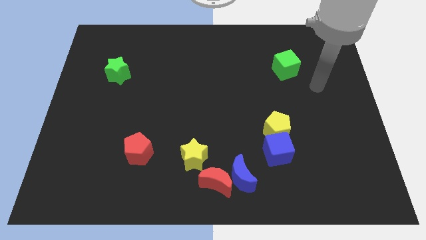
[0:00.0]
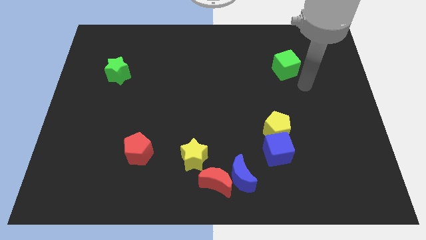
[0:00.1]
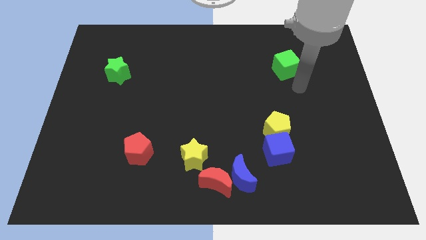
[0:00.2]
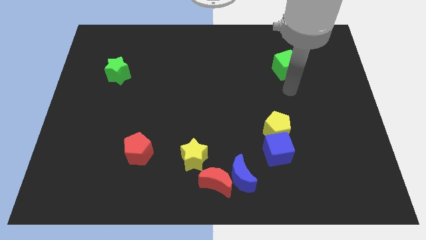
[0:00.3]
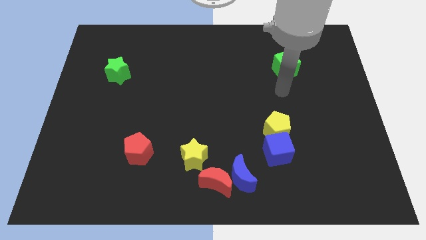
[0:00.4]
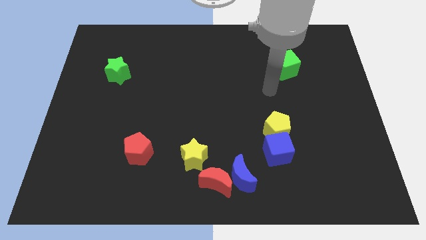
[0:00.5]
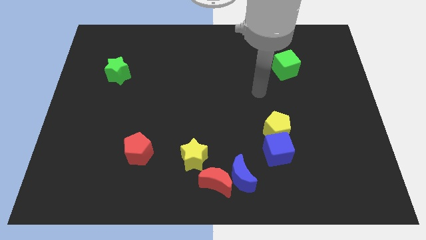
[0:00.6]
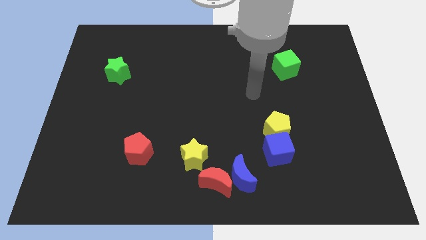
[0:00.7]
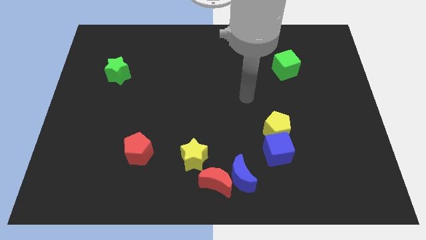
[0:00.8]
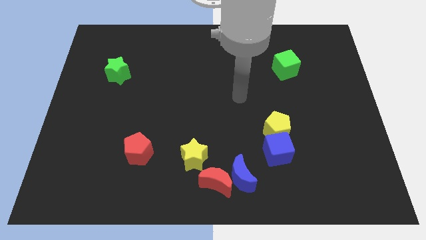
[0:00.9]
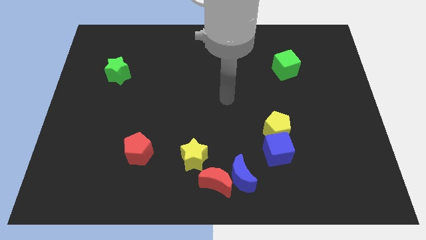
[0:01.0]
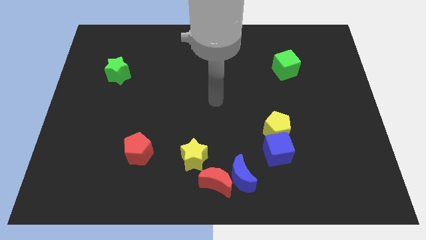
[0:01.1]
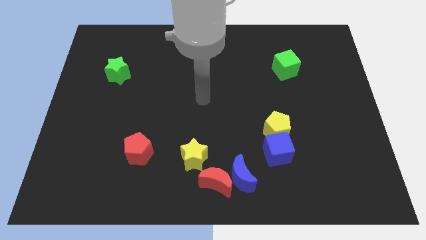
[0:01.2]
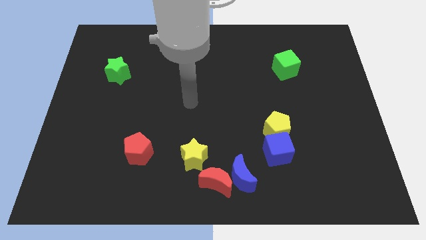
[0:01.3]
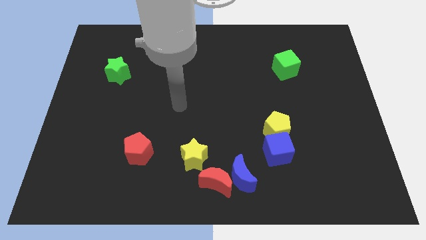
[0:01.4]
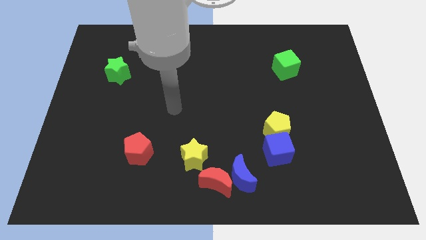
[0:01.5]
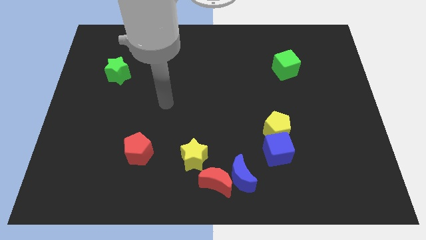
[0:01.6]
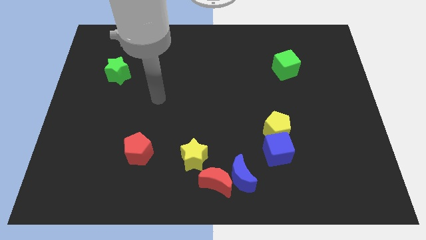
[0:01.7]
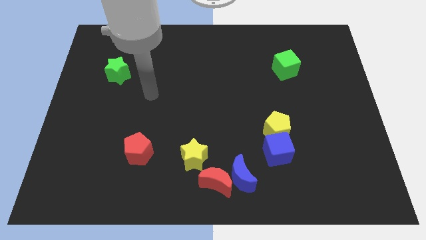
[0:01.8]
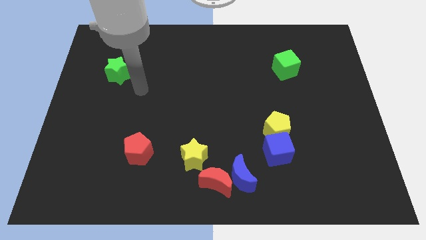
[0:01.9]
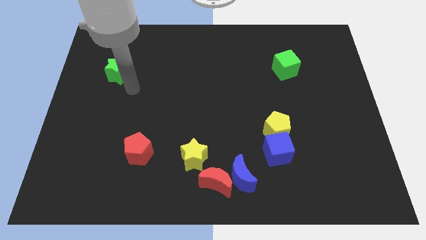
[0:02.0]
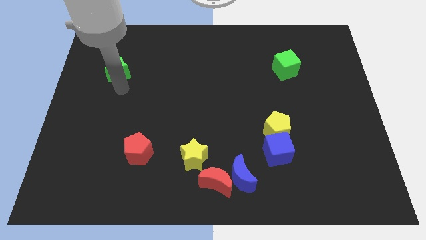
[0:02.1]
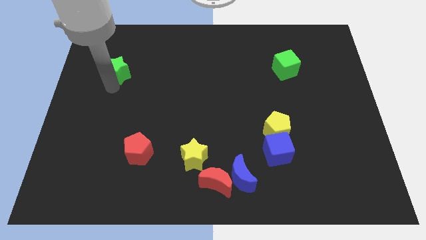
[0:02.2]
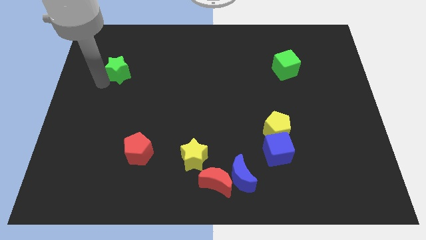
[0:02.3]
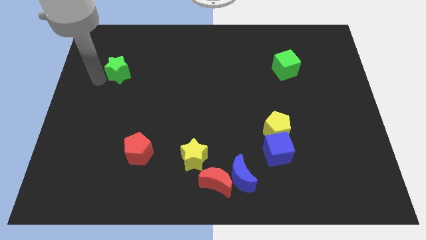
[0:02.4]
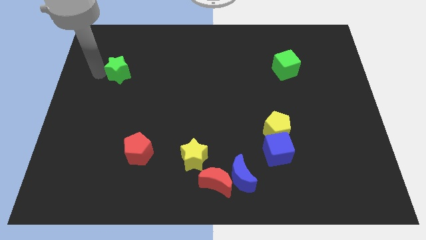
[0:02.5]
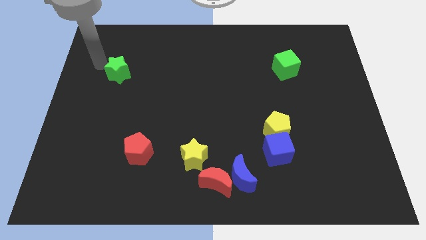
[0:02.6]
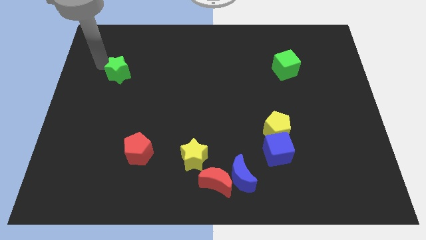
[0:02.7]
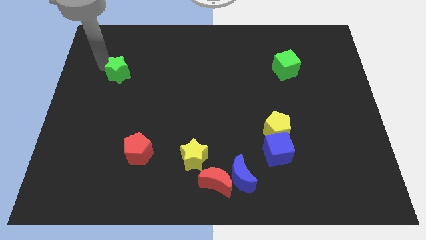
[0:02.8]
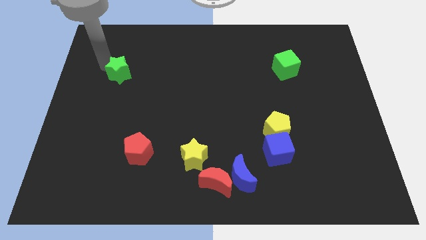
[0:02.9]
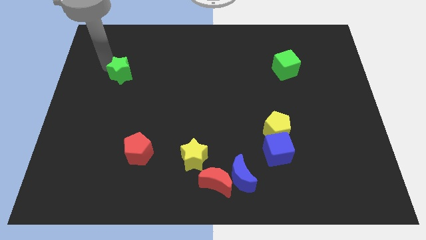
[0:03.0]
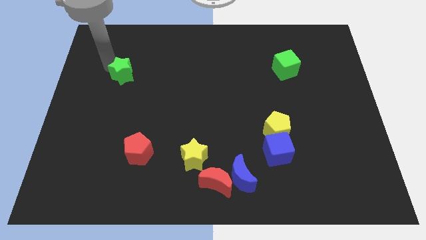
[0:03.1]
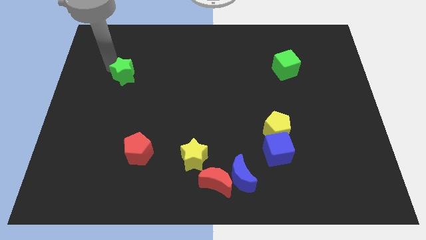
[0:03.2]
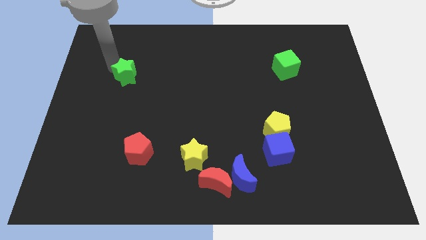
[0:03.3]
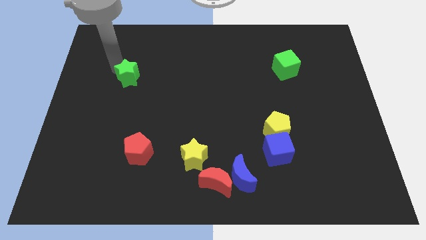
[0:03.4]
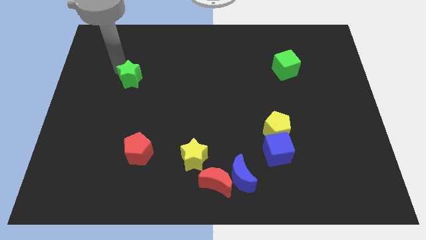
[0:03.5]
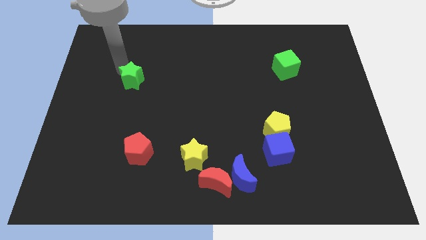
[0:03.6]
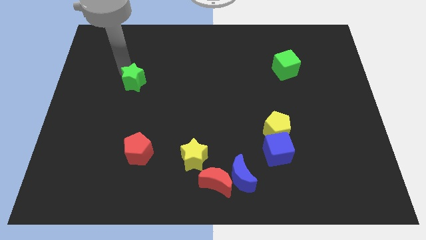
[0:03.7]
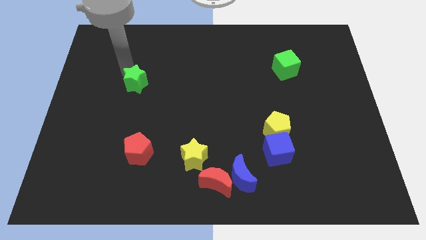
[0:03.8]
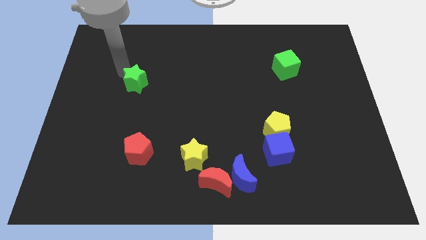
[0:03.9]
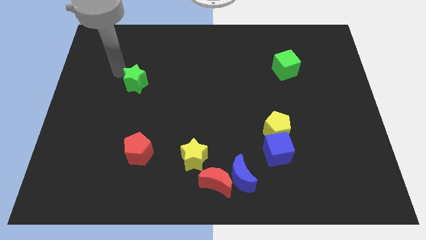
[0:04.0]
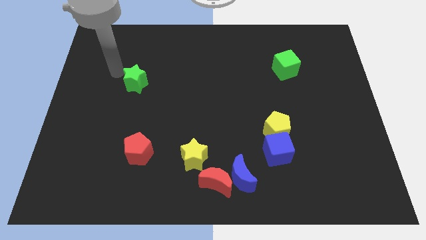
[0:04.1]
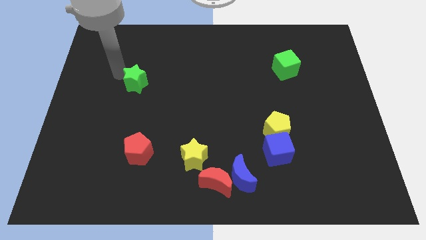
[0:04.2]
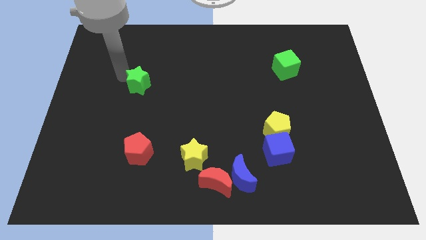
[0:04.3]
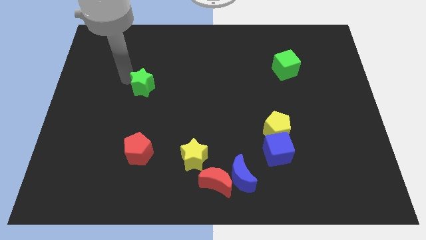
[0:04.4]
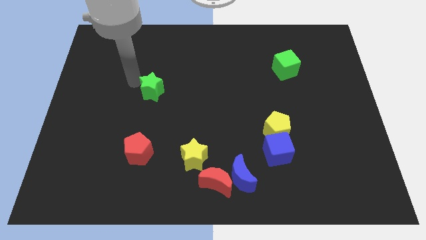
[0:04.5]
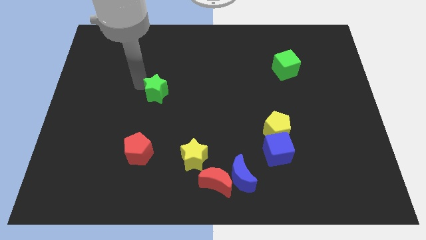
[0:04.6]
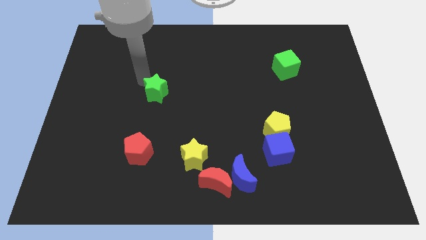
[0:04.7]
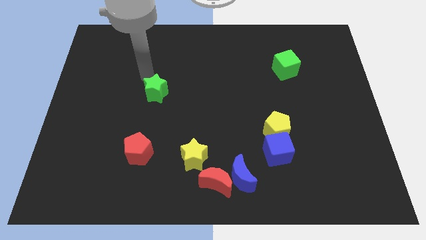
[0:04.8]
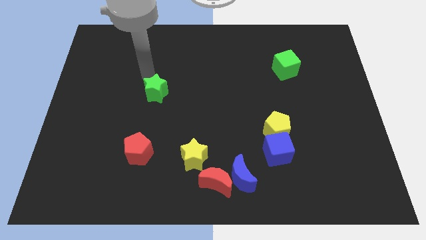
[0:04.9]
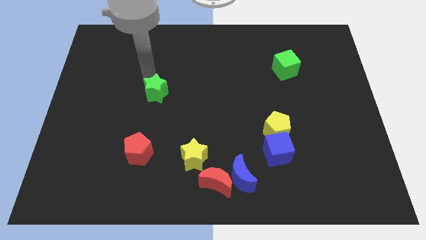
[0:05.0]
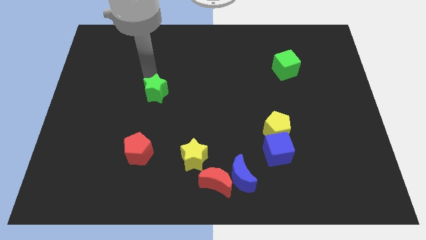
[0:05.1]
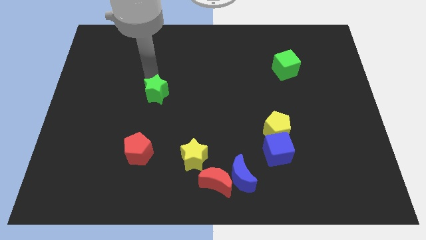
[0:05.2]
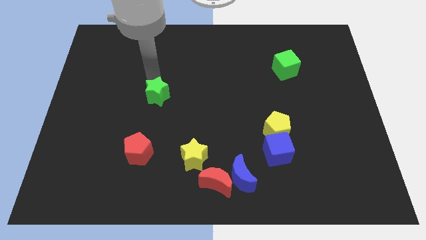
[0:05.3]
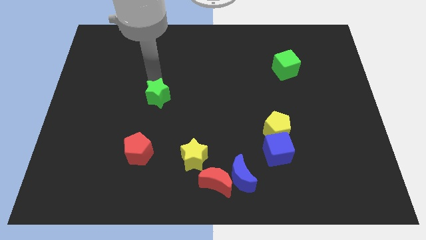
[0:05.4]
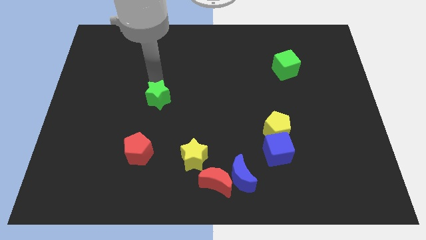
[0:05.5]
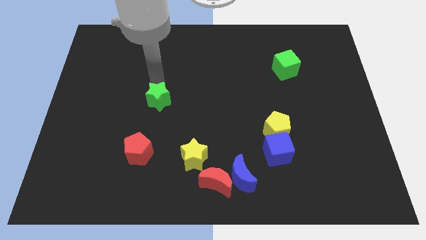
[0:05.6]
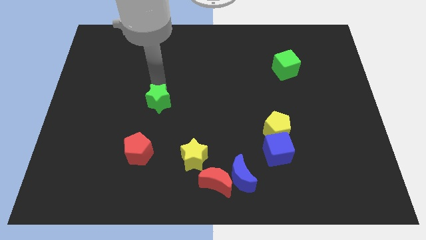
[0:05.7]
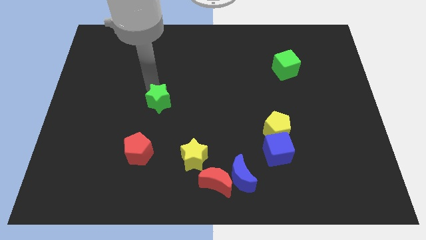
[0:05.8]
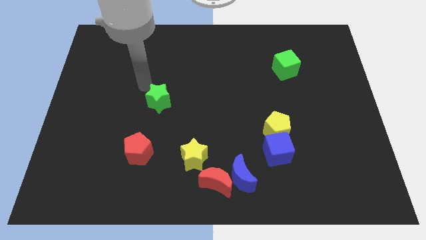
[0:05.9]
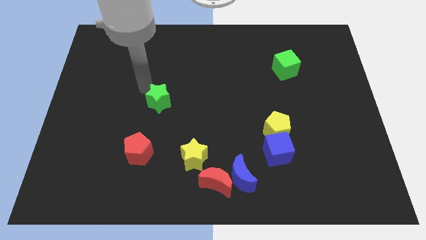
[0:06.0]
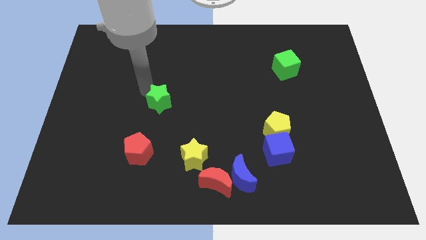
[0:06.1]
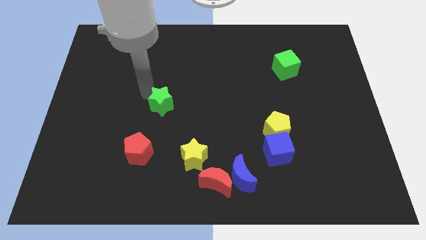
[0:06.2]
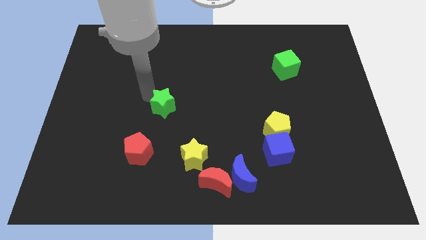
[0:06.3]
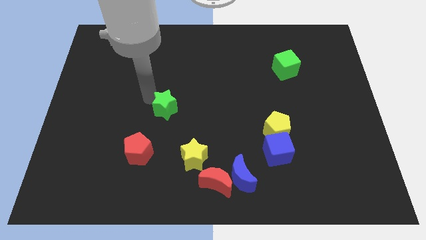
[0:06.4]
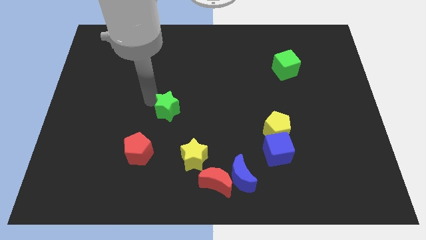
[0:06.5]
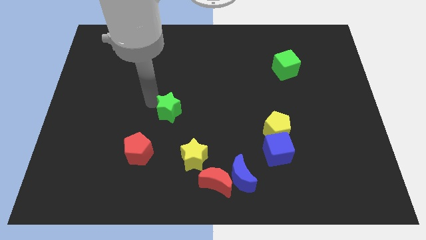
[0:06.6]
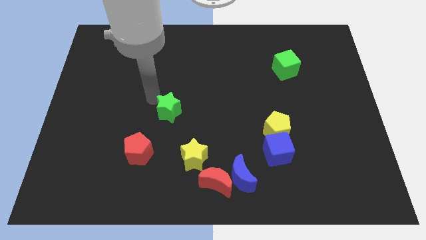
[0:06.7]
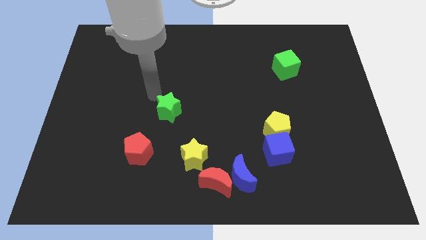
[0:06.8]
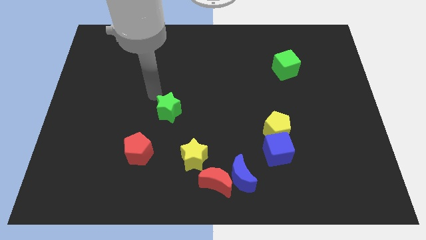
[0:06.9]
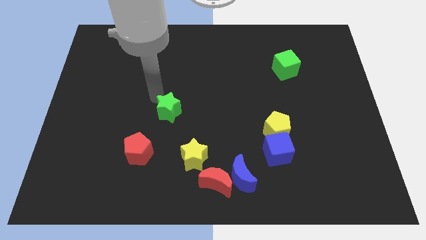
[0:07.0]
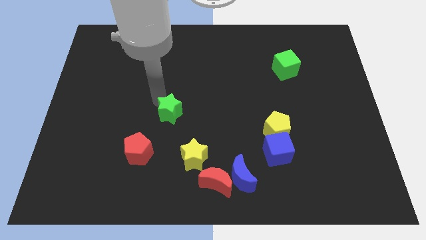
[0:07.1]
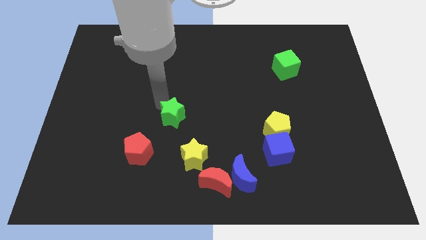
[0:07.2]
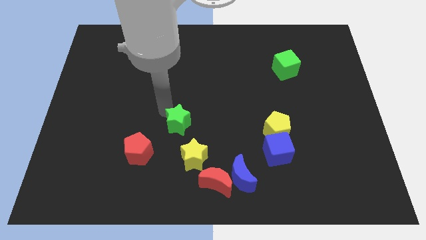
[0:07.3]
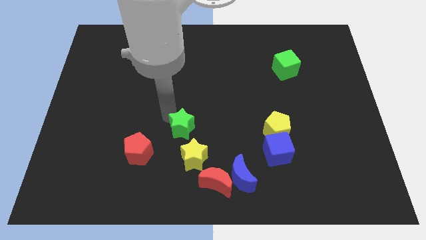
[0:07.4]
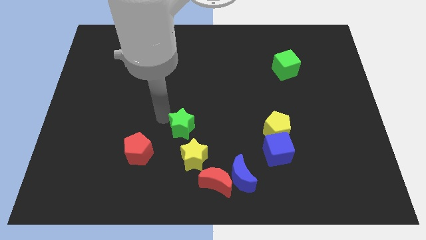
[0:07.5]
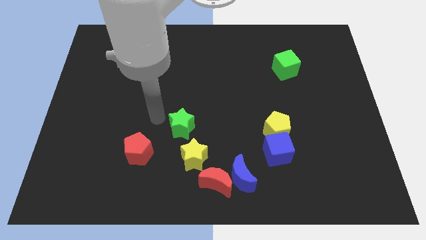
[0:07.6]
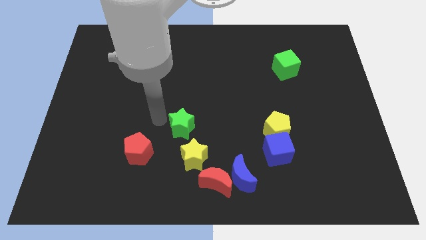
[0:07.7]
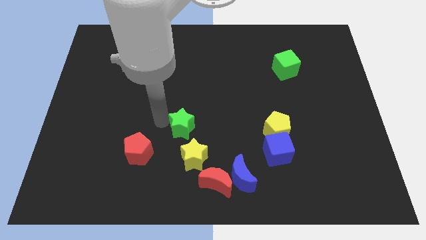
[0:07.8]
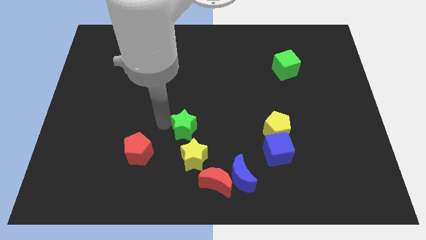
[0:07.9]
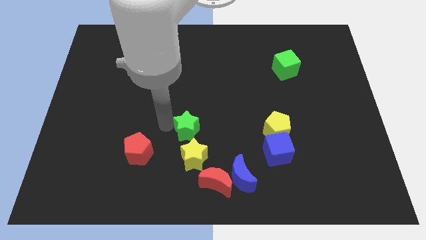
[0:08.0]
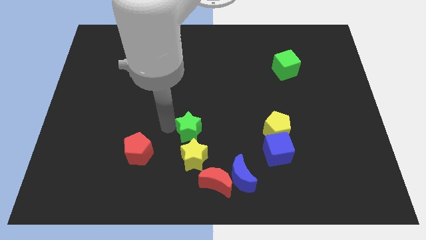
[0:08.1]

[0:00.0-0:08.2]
move the green star just right of the red pentagon
